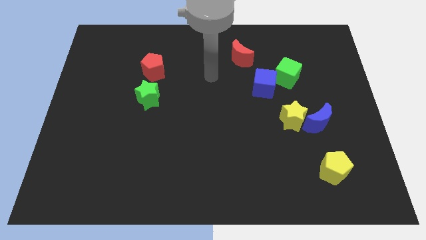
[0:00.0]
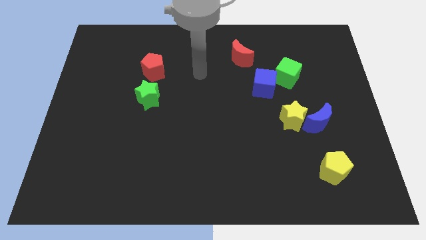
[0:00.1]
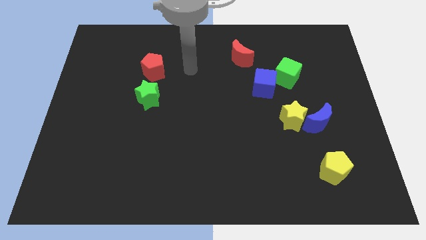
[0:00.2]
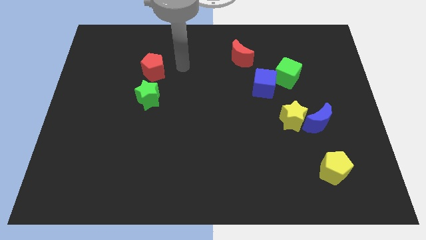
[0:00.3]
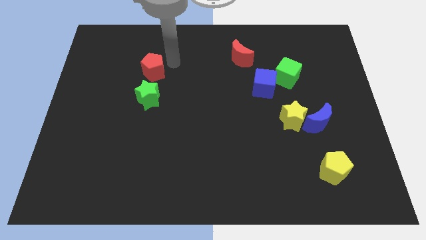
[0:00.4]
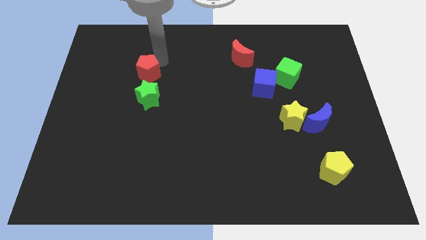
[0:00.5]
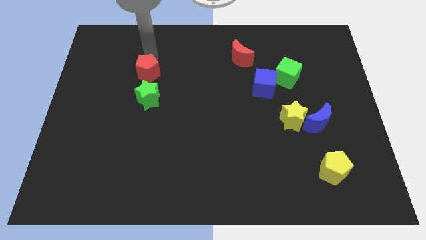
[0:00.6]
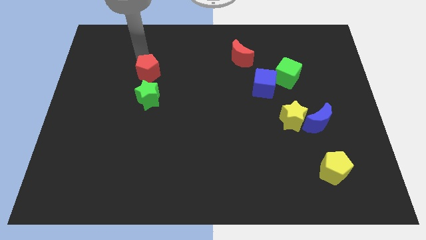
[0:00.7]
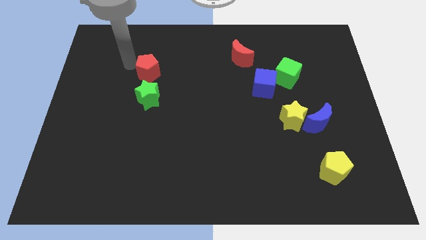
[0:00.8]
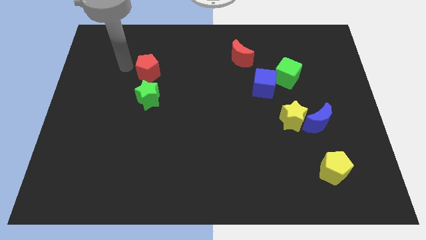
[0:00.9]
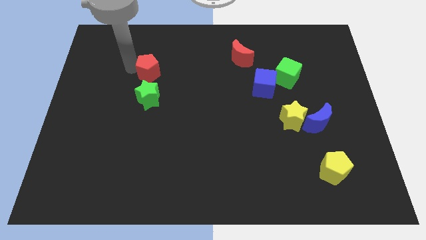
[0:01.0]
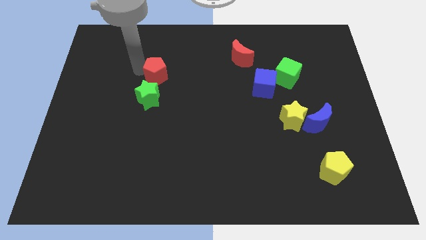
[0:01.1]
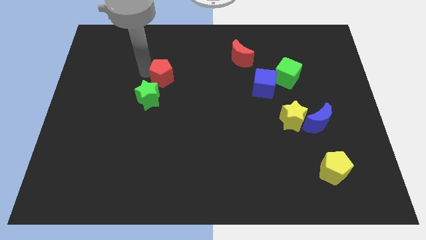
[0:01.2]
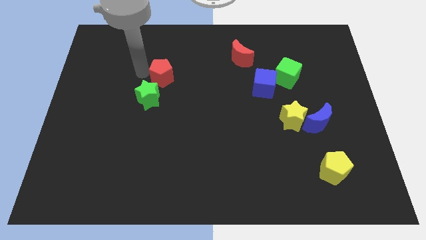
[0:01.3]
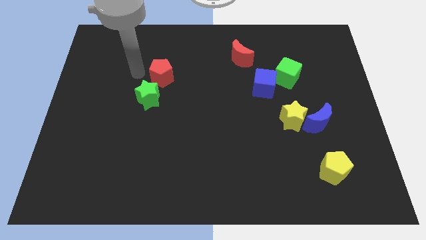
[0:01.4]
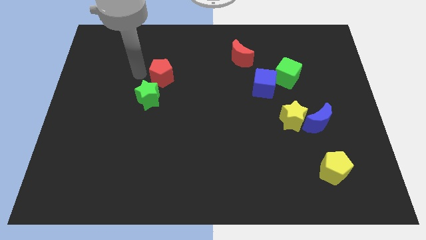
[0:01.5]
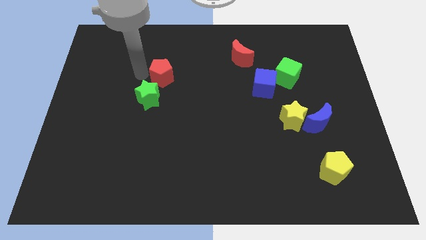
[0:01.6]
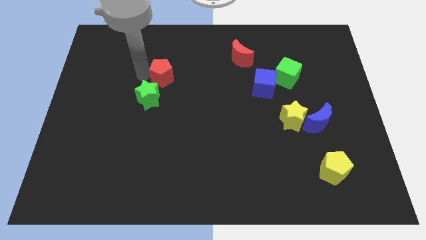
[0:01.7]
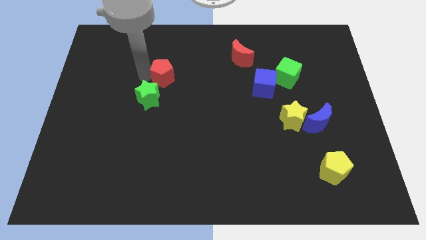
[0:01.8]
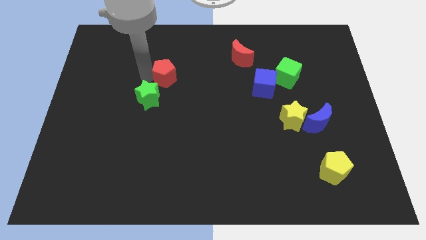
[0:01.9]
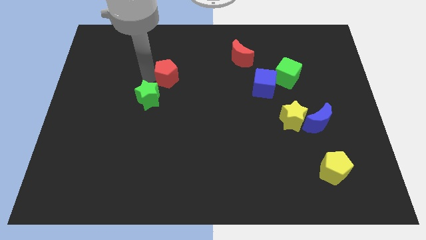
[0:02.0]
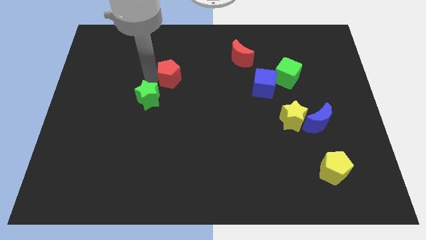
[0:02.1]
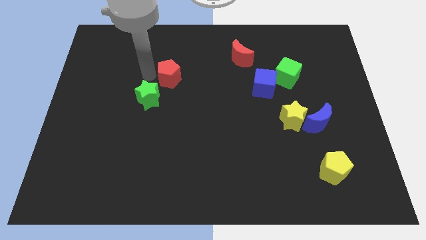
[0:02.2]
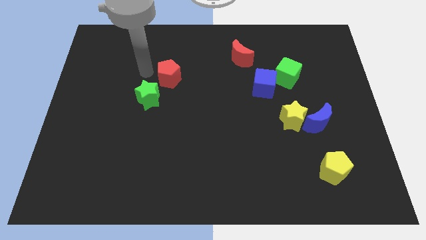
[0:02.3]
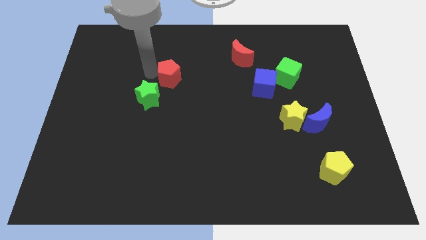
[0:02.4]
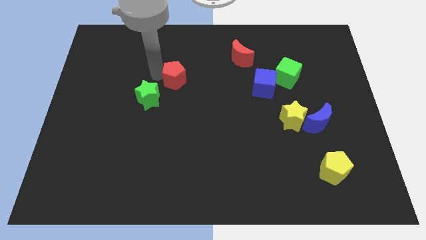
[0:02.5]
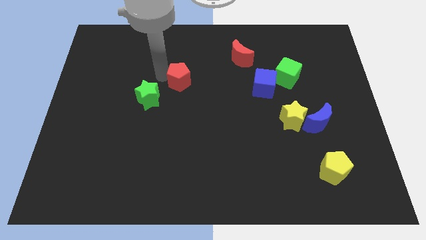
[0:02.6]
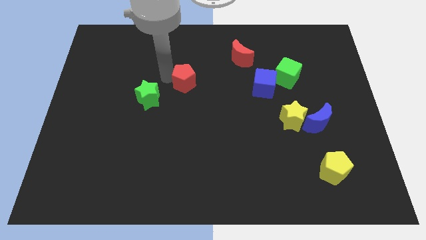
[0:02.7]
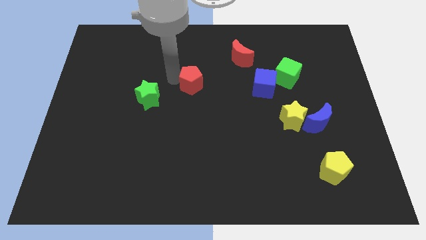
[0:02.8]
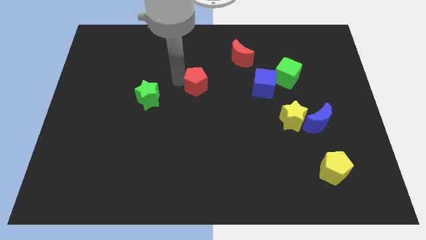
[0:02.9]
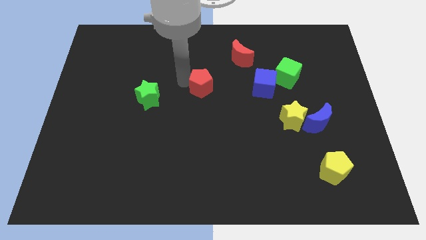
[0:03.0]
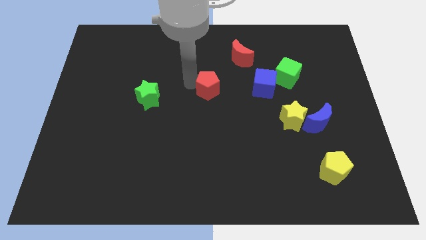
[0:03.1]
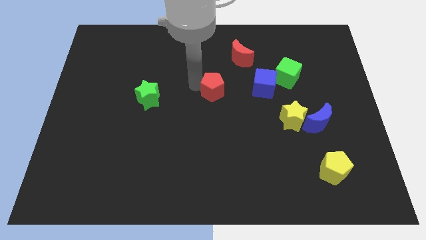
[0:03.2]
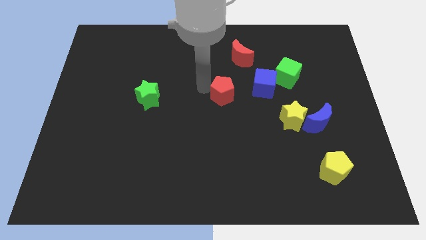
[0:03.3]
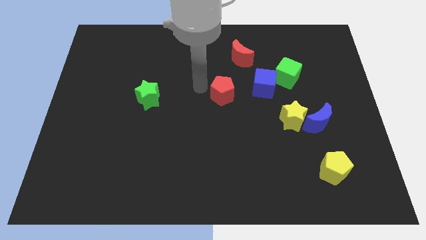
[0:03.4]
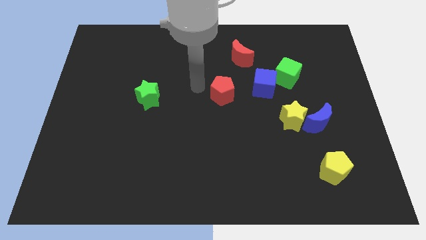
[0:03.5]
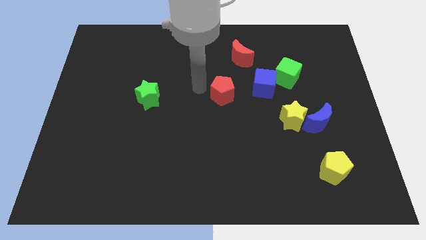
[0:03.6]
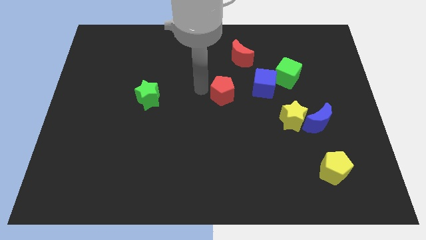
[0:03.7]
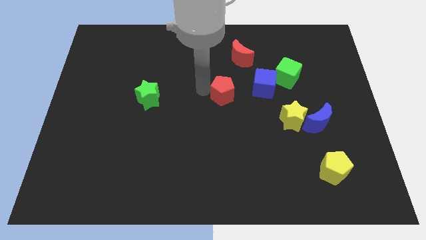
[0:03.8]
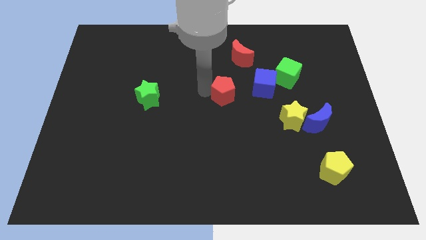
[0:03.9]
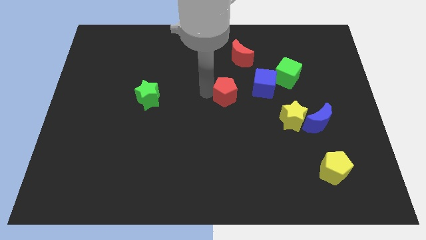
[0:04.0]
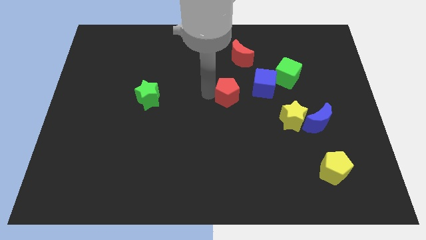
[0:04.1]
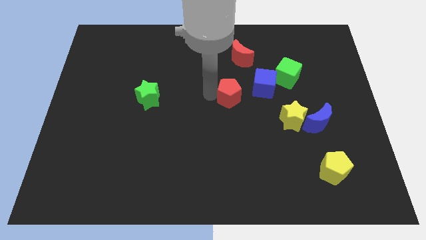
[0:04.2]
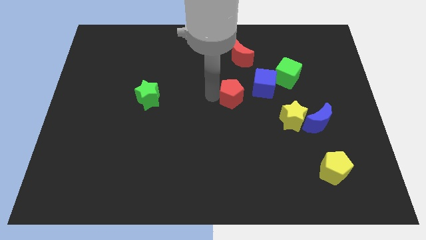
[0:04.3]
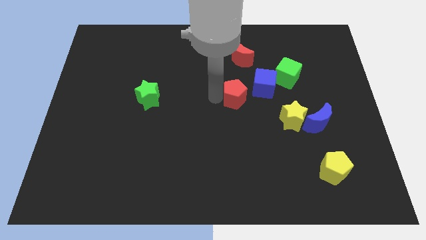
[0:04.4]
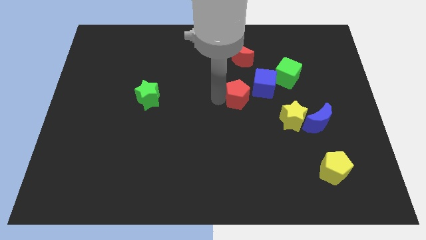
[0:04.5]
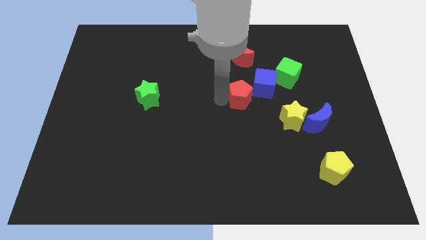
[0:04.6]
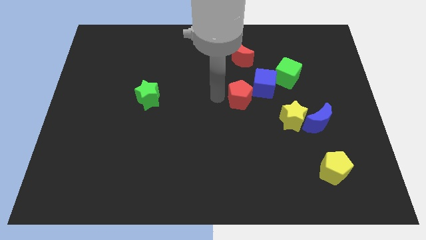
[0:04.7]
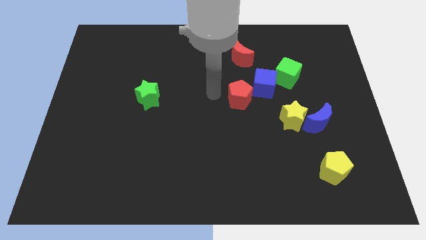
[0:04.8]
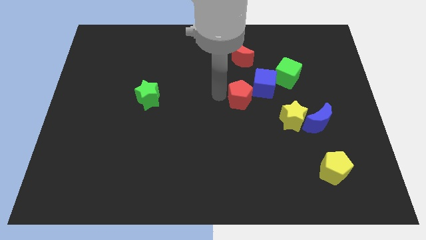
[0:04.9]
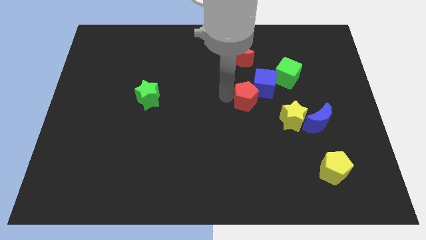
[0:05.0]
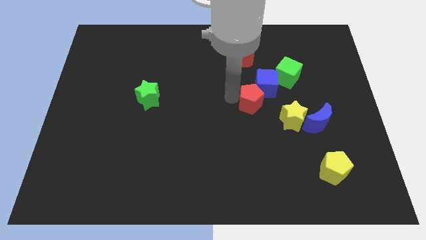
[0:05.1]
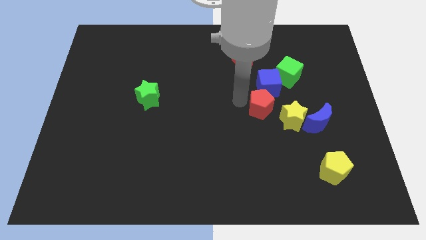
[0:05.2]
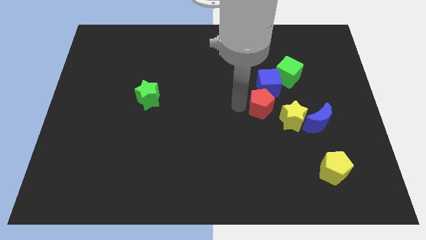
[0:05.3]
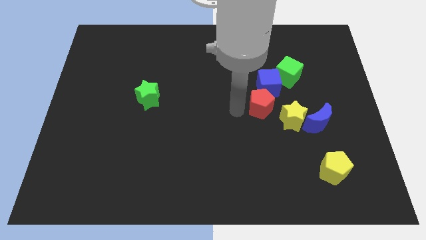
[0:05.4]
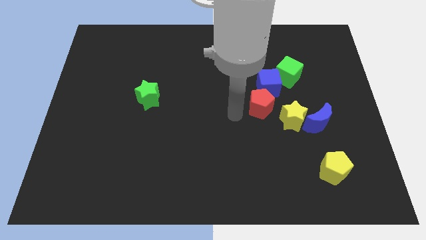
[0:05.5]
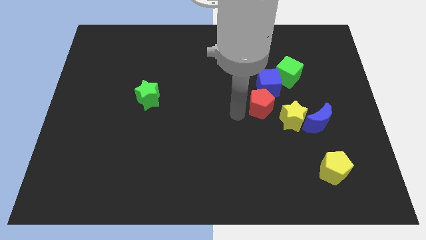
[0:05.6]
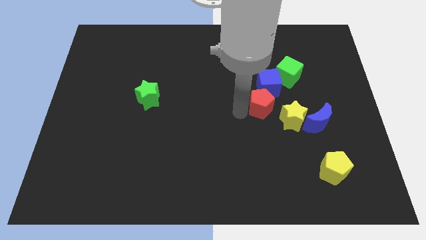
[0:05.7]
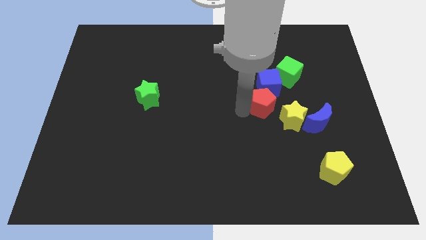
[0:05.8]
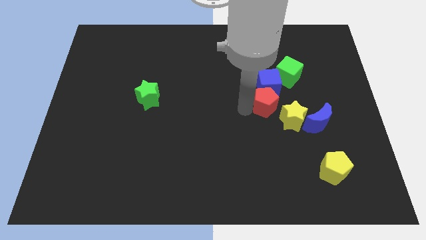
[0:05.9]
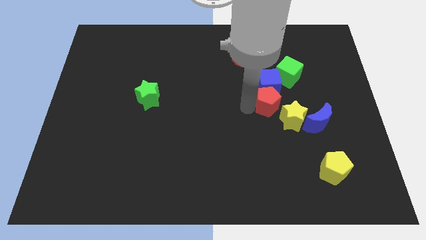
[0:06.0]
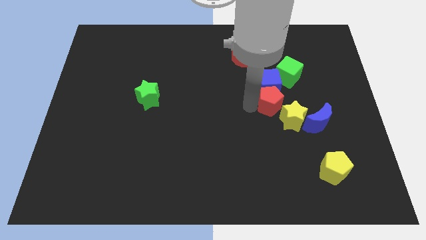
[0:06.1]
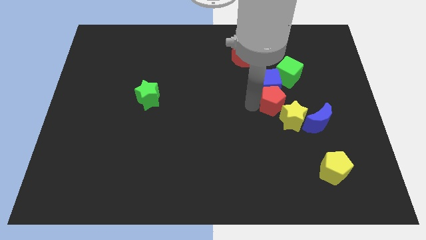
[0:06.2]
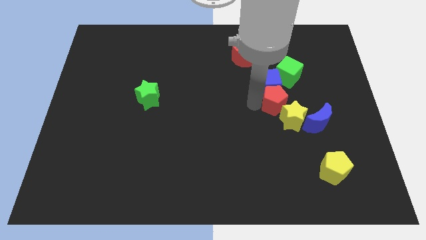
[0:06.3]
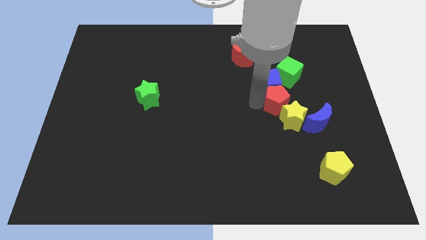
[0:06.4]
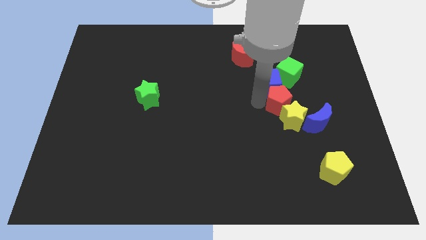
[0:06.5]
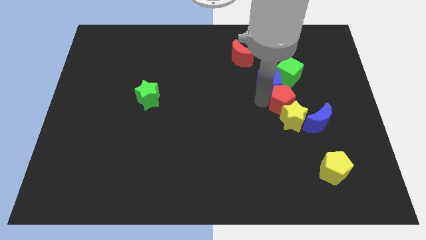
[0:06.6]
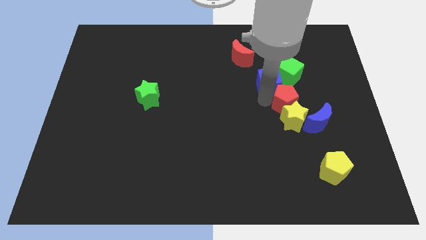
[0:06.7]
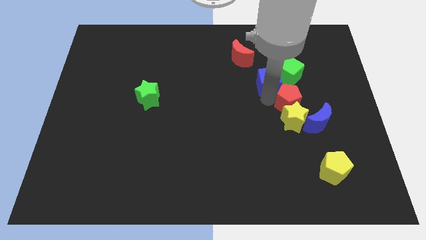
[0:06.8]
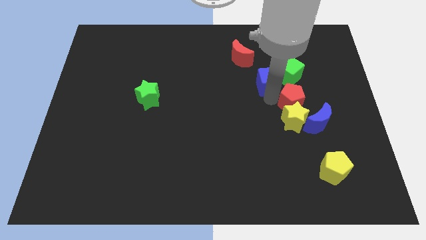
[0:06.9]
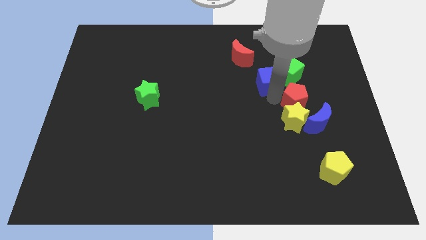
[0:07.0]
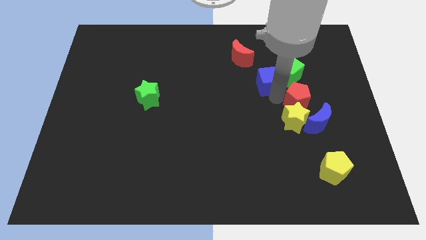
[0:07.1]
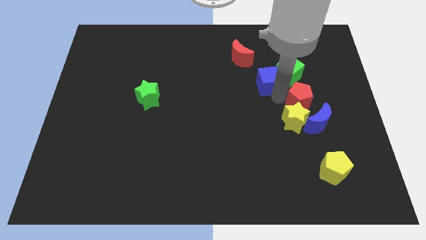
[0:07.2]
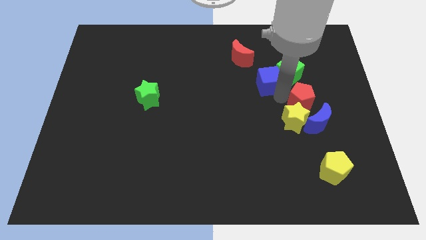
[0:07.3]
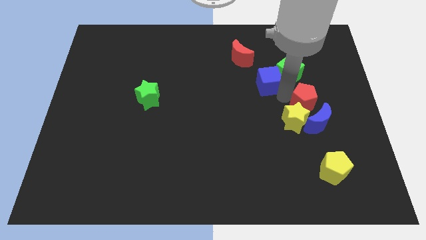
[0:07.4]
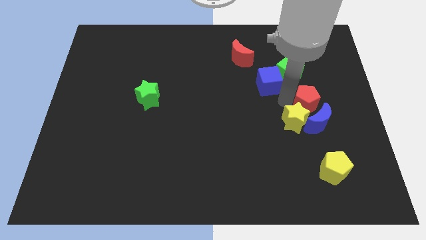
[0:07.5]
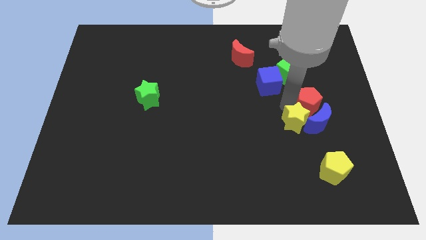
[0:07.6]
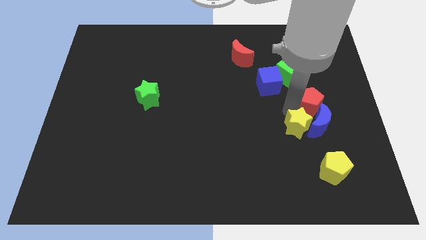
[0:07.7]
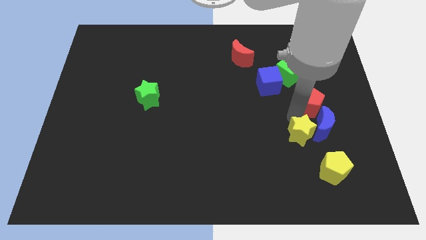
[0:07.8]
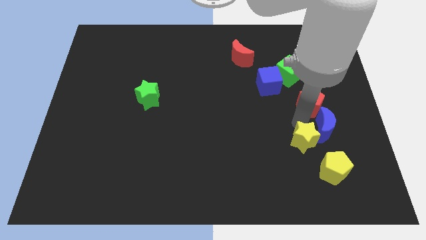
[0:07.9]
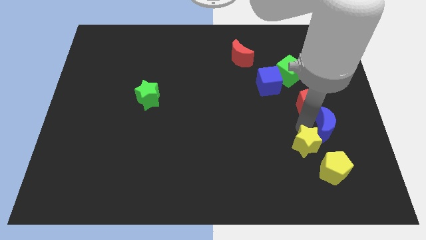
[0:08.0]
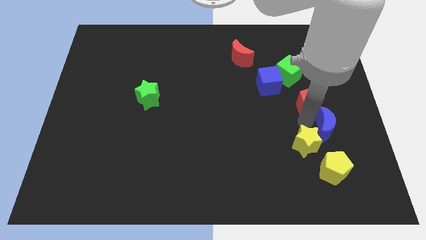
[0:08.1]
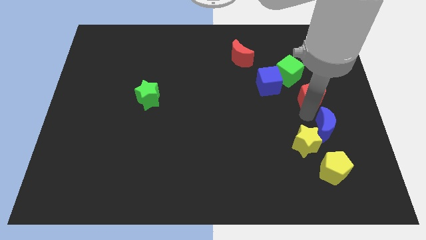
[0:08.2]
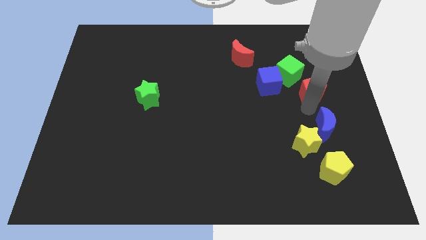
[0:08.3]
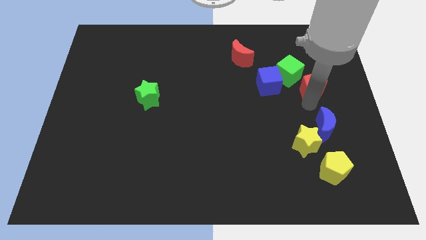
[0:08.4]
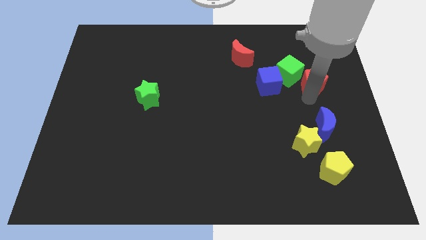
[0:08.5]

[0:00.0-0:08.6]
put the red pentagon right of the green cube
